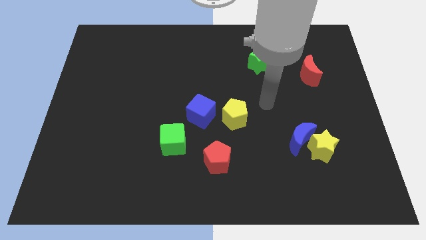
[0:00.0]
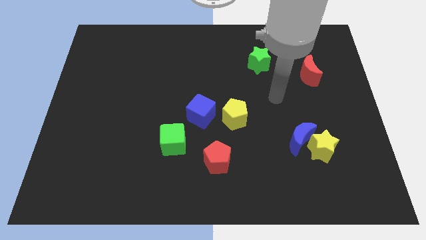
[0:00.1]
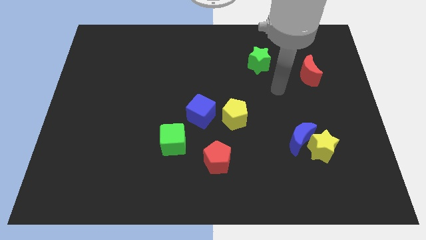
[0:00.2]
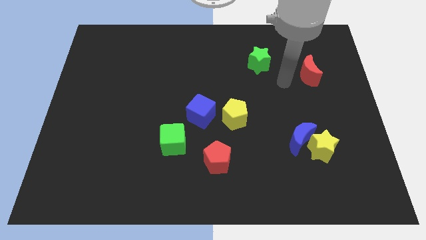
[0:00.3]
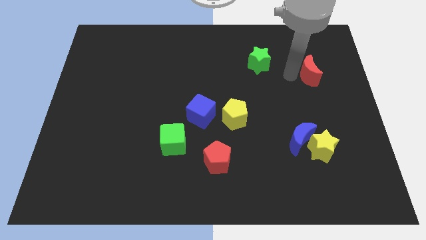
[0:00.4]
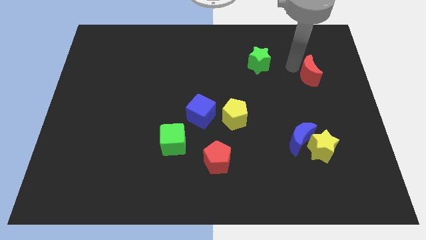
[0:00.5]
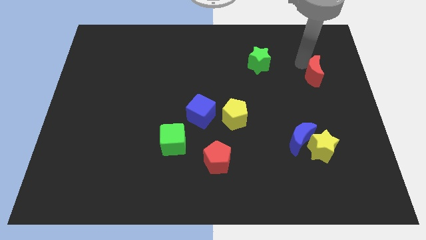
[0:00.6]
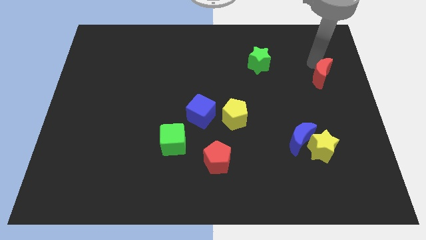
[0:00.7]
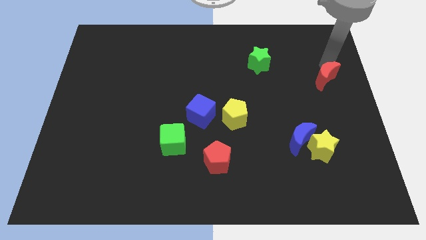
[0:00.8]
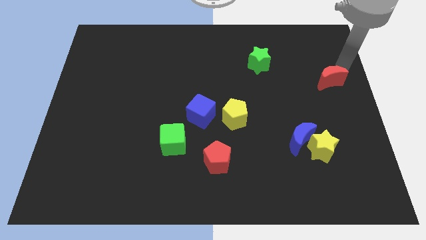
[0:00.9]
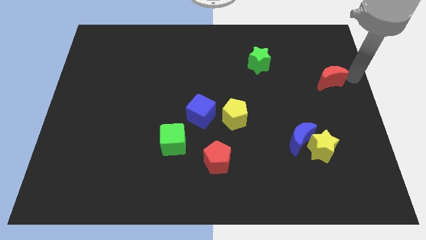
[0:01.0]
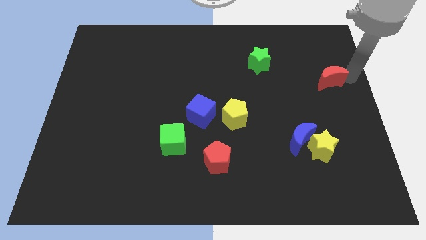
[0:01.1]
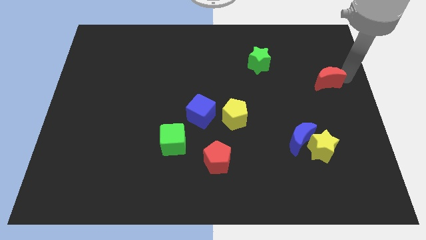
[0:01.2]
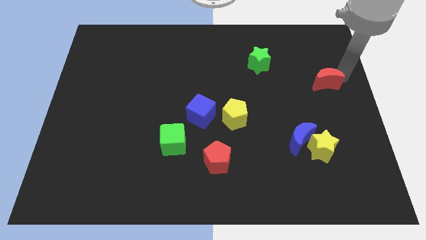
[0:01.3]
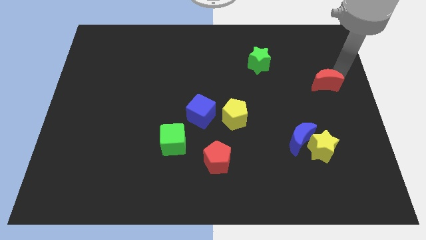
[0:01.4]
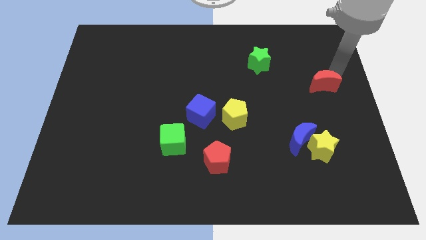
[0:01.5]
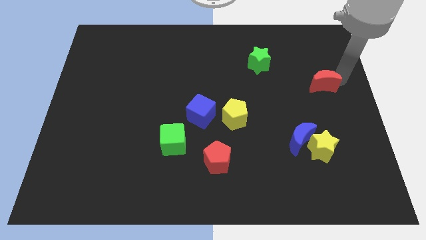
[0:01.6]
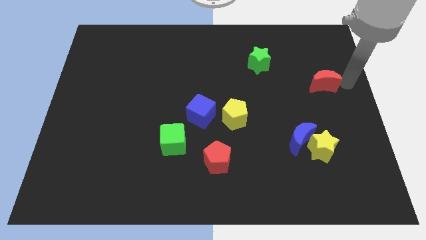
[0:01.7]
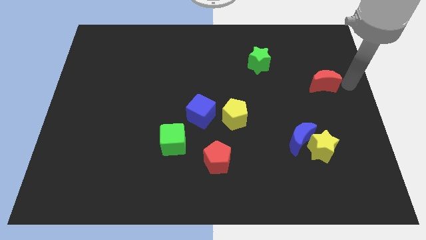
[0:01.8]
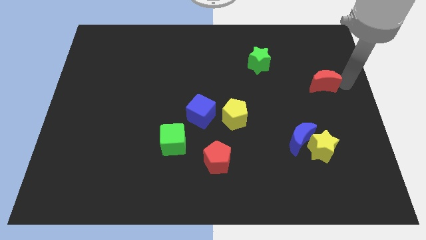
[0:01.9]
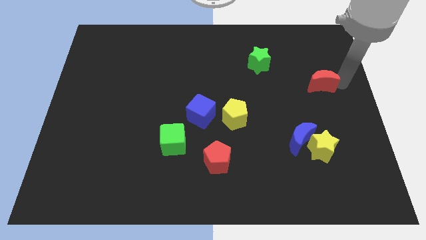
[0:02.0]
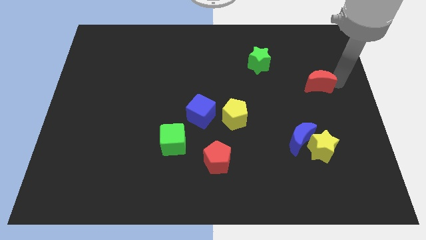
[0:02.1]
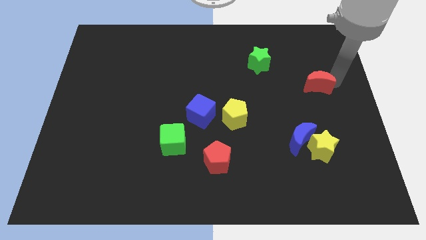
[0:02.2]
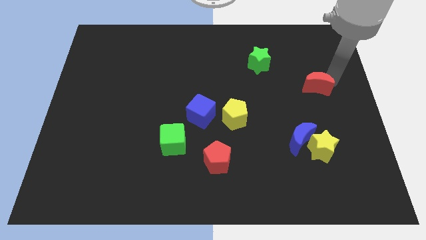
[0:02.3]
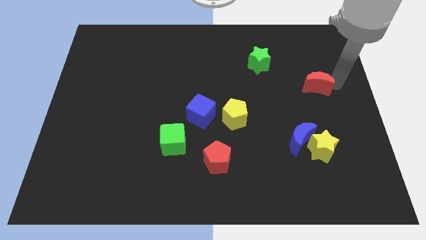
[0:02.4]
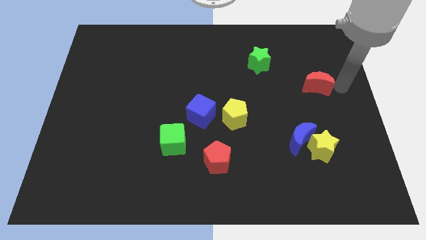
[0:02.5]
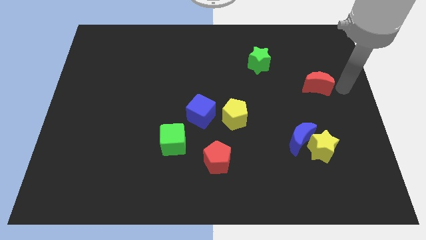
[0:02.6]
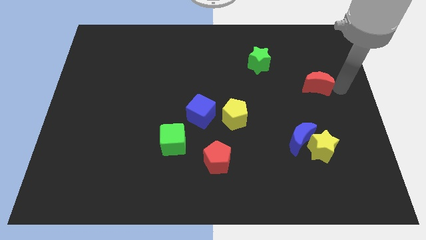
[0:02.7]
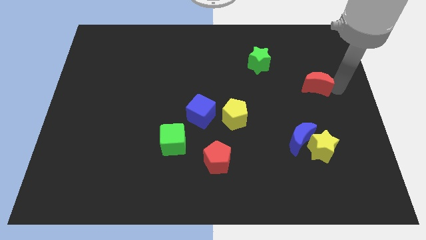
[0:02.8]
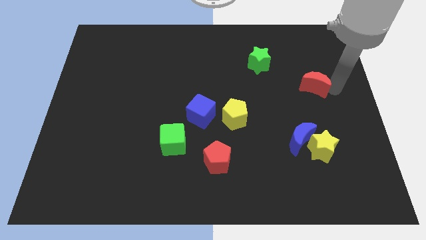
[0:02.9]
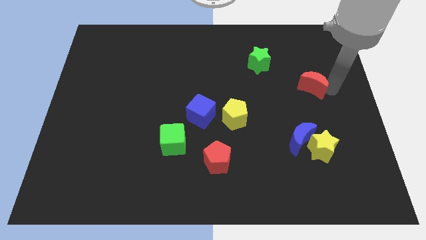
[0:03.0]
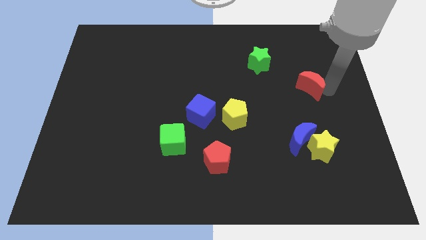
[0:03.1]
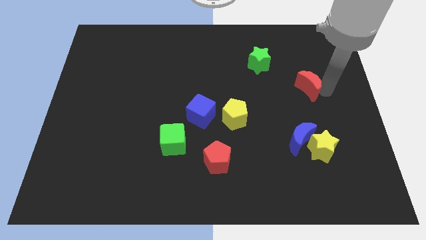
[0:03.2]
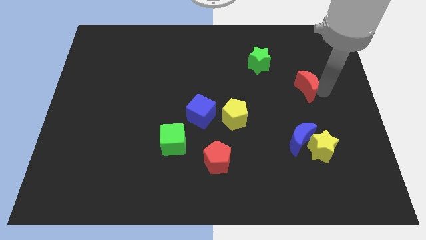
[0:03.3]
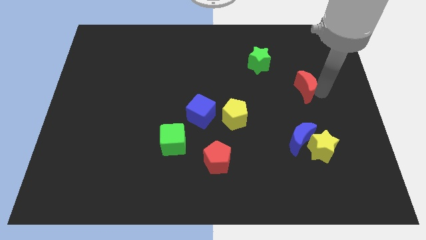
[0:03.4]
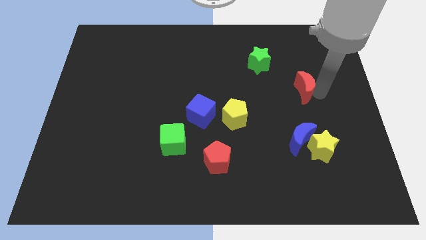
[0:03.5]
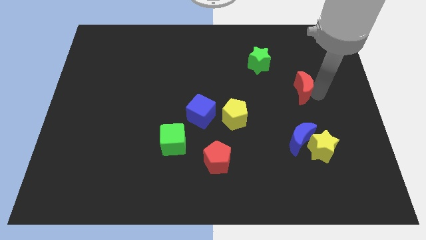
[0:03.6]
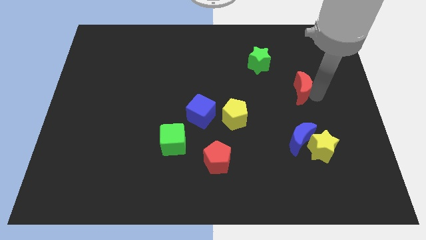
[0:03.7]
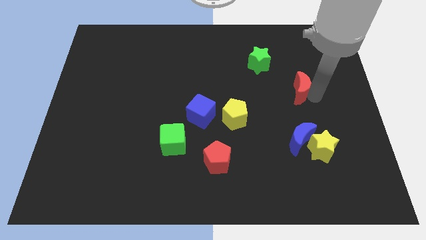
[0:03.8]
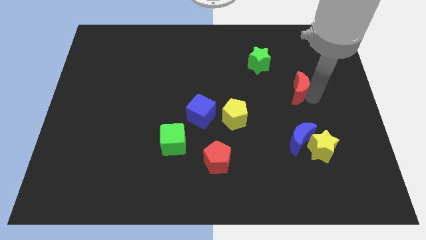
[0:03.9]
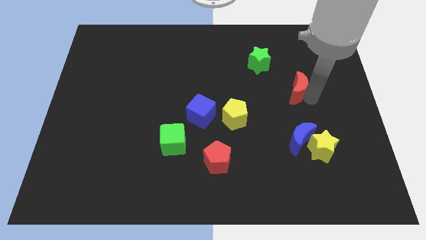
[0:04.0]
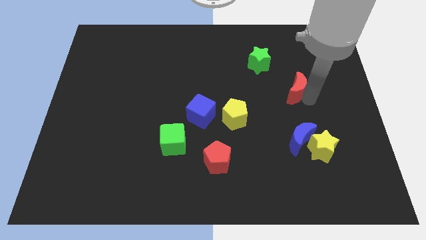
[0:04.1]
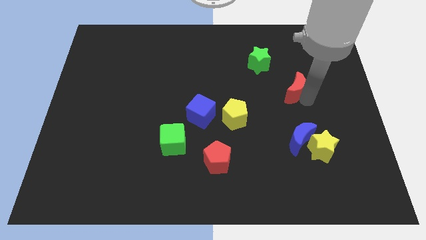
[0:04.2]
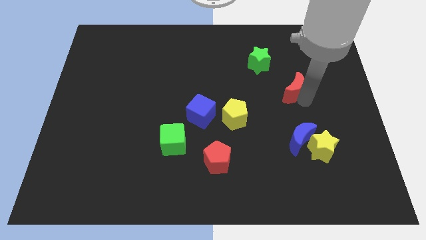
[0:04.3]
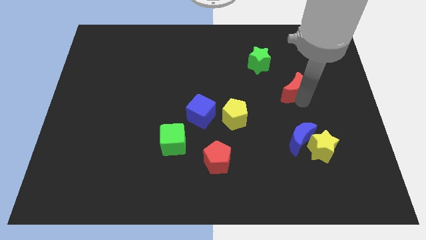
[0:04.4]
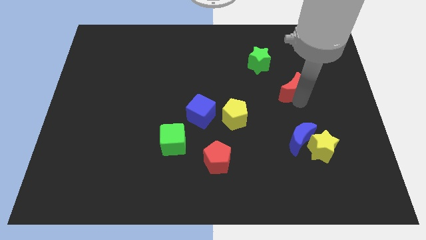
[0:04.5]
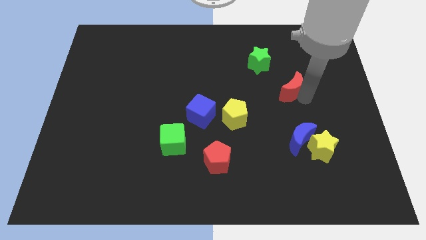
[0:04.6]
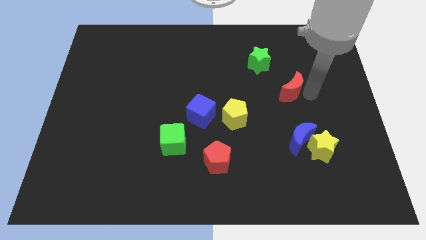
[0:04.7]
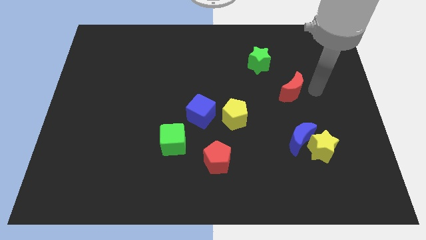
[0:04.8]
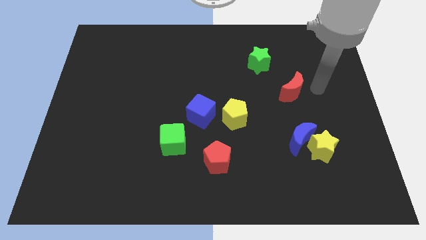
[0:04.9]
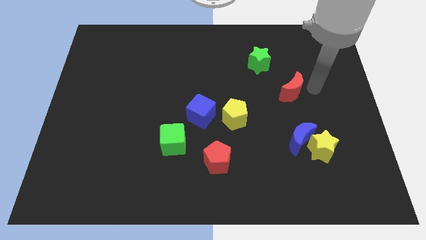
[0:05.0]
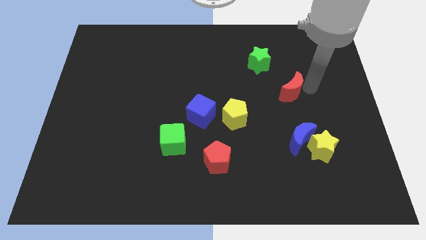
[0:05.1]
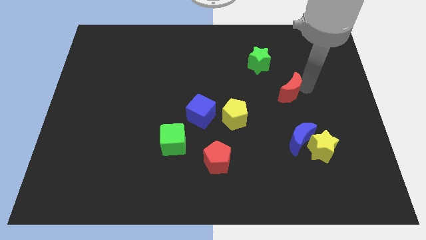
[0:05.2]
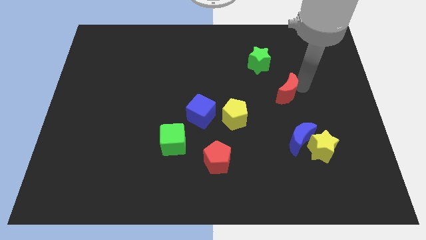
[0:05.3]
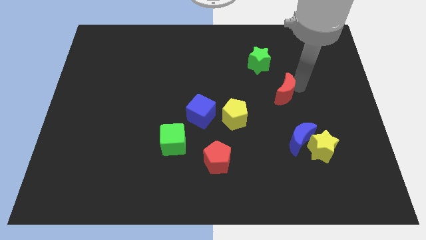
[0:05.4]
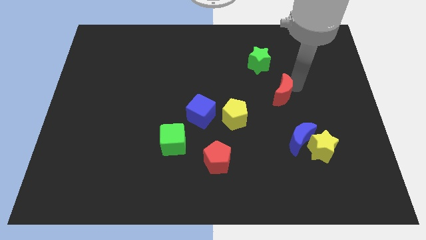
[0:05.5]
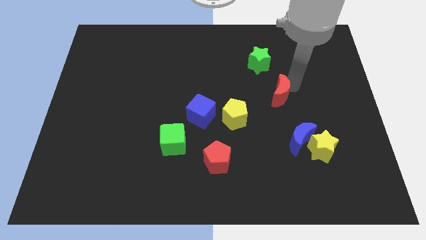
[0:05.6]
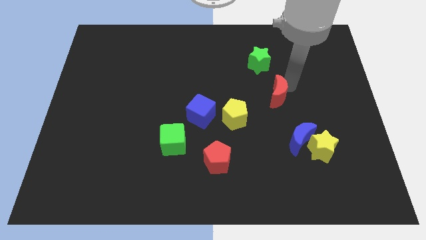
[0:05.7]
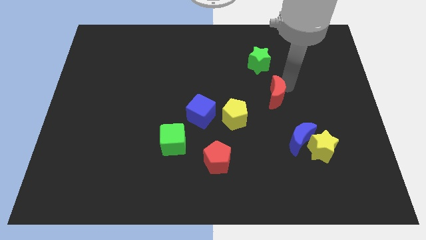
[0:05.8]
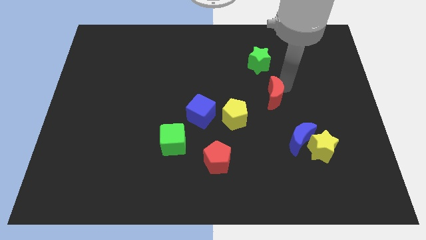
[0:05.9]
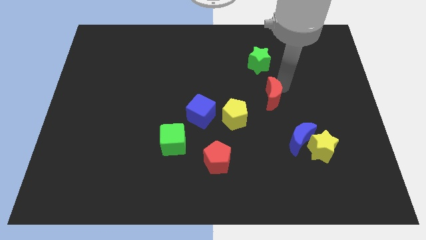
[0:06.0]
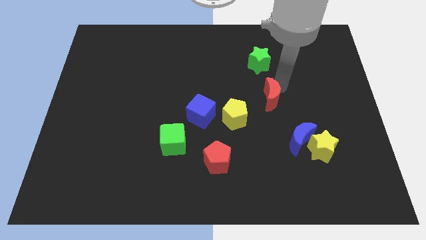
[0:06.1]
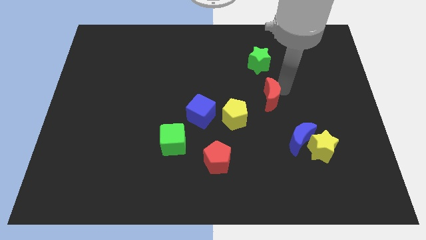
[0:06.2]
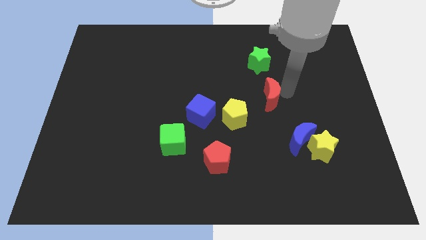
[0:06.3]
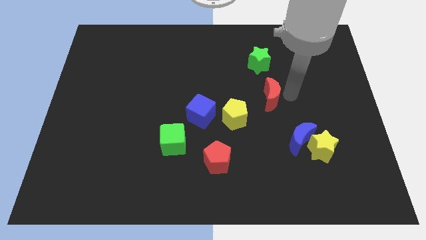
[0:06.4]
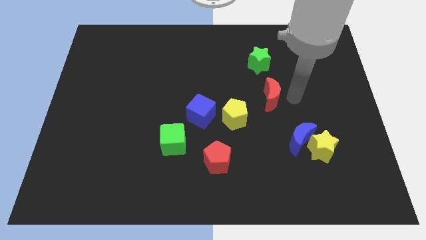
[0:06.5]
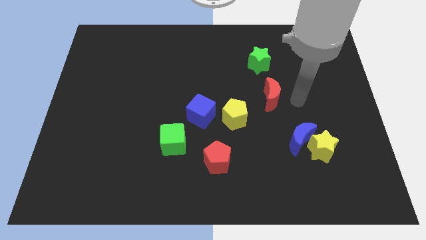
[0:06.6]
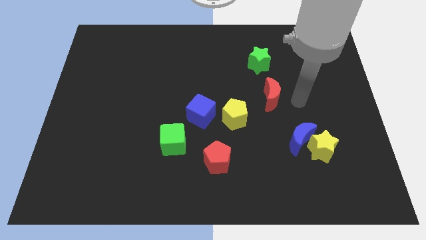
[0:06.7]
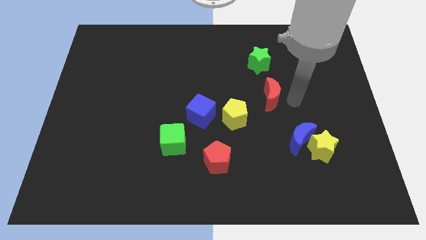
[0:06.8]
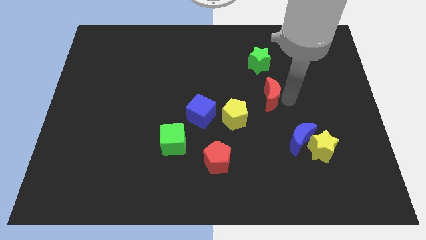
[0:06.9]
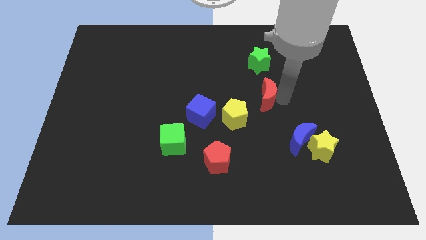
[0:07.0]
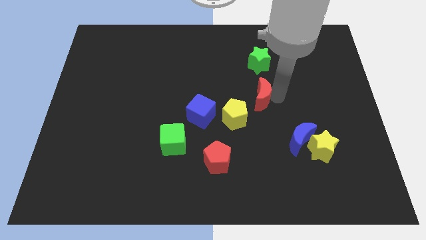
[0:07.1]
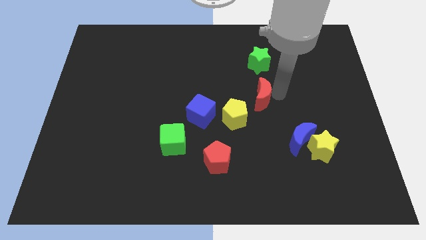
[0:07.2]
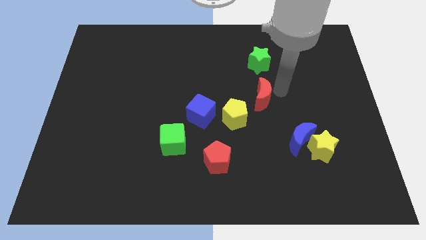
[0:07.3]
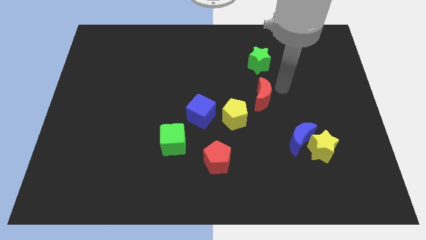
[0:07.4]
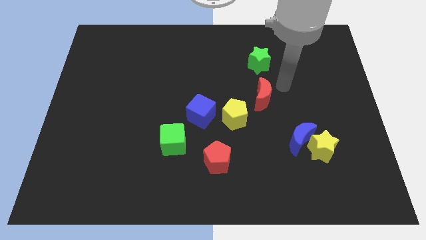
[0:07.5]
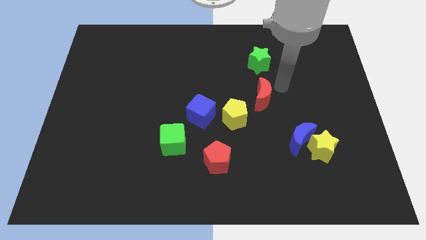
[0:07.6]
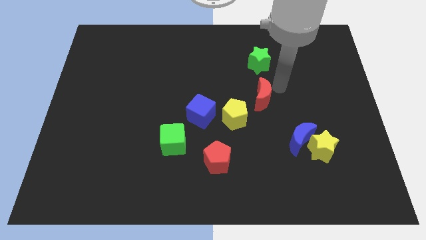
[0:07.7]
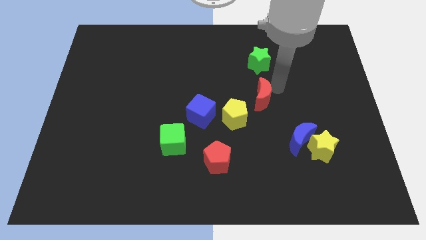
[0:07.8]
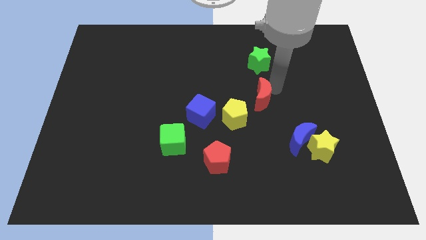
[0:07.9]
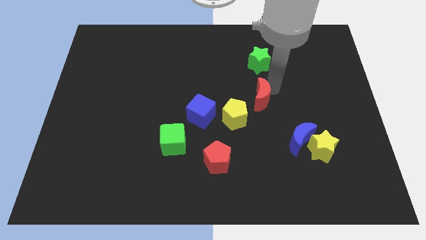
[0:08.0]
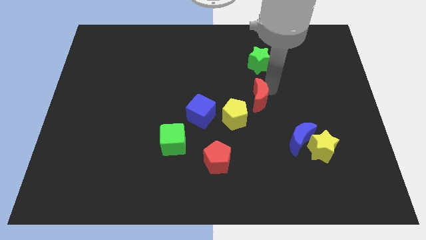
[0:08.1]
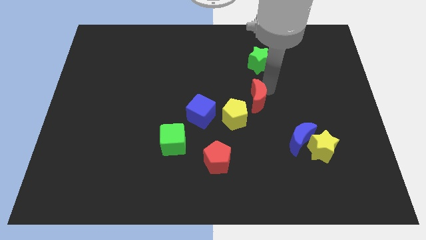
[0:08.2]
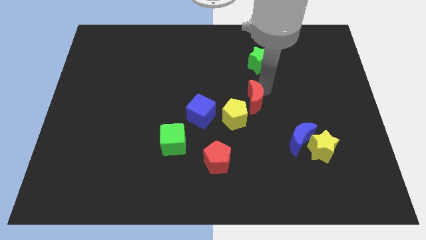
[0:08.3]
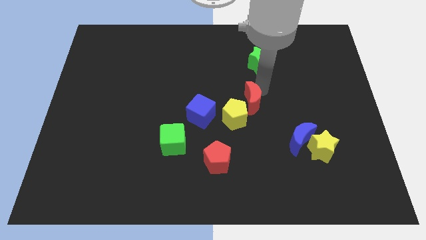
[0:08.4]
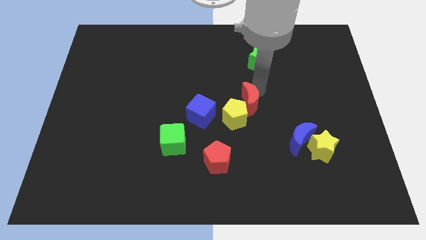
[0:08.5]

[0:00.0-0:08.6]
push the red moon to the yellow pentagon
